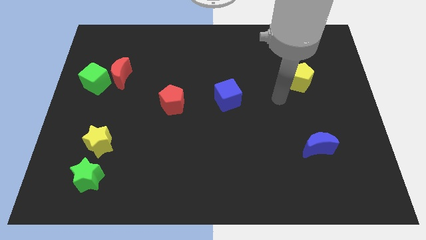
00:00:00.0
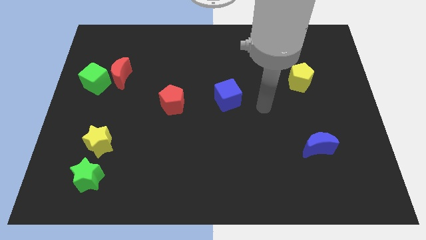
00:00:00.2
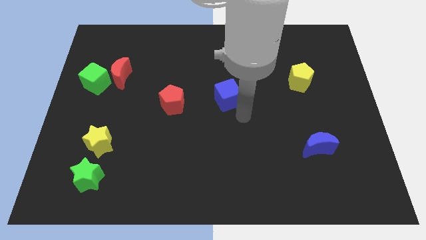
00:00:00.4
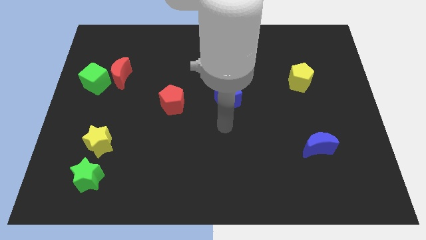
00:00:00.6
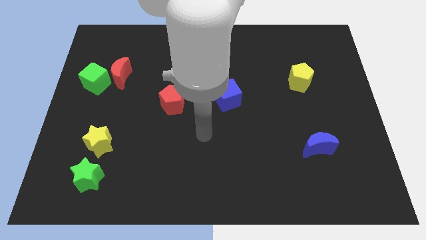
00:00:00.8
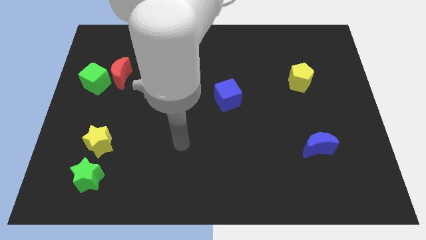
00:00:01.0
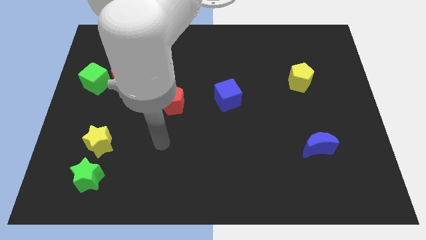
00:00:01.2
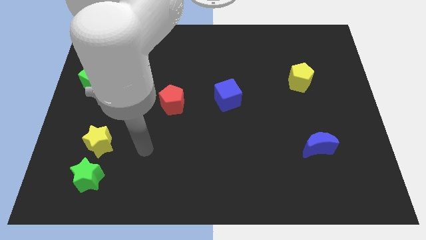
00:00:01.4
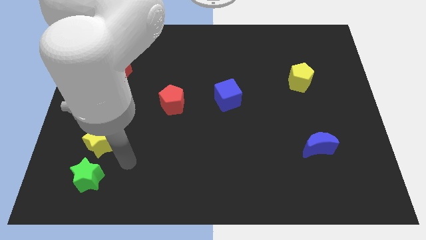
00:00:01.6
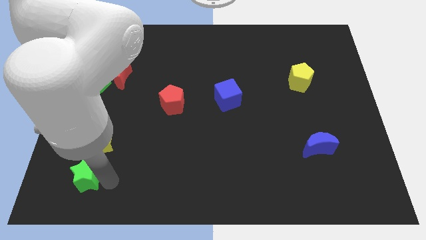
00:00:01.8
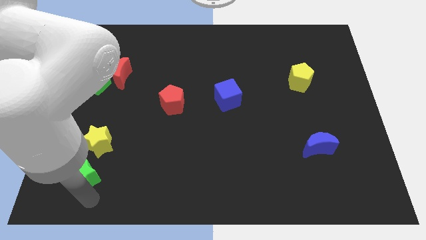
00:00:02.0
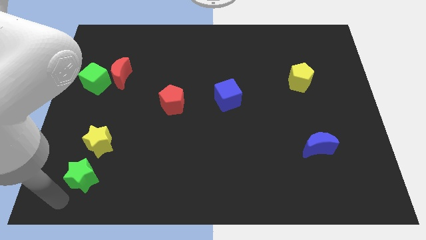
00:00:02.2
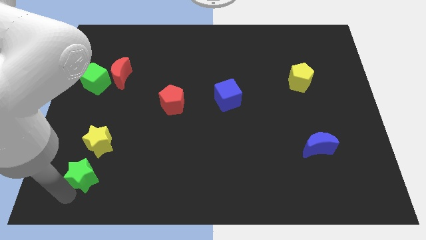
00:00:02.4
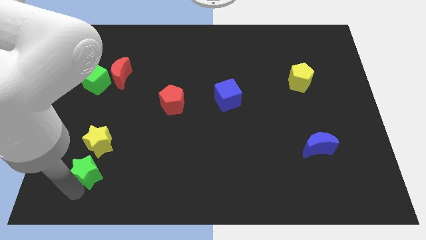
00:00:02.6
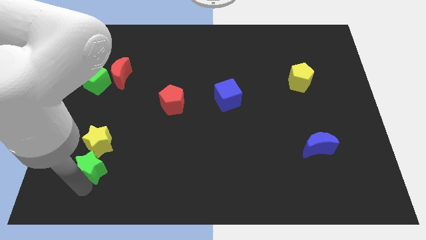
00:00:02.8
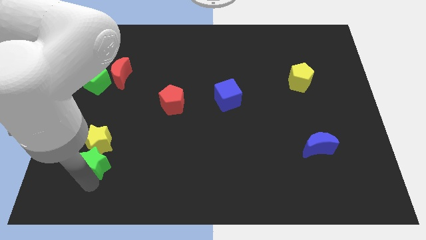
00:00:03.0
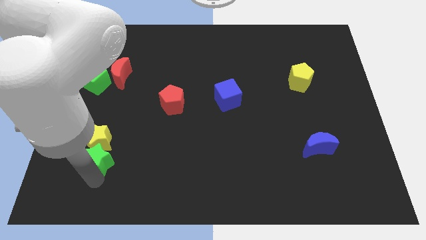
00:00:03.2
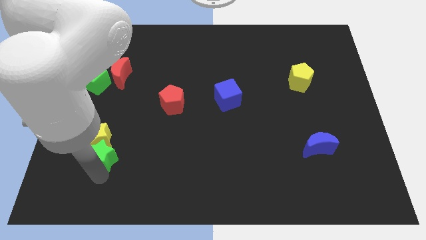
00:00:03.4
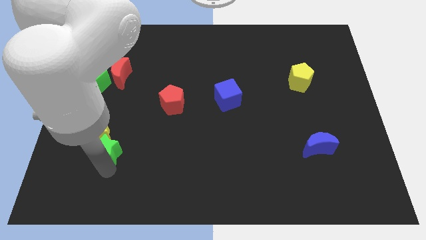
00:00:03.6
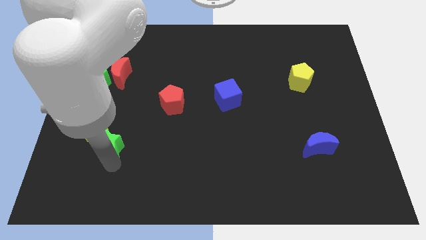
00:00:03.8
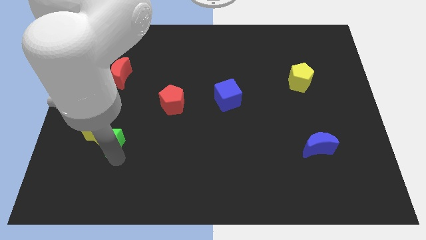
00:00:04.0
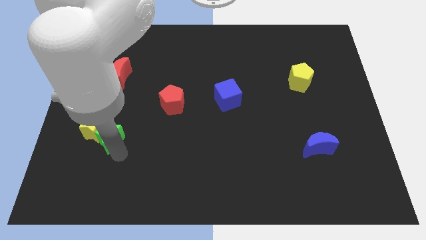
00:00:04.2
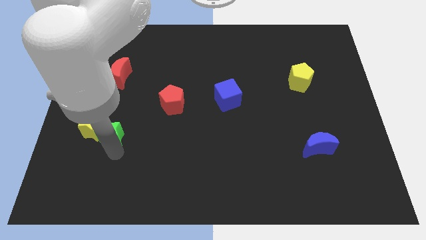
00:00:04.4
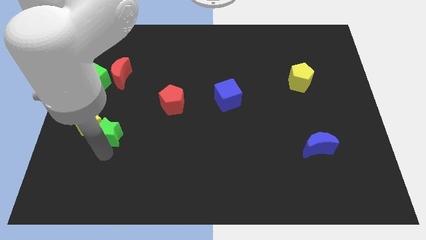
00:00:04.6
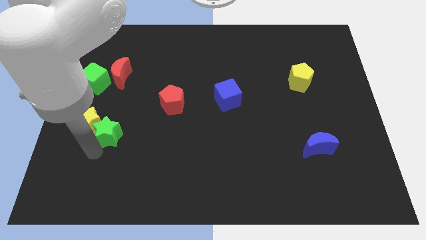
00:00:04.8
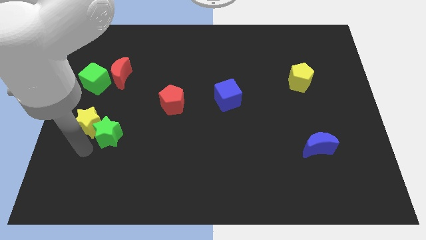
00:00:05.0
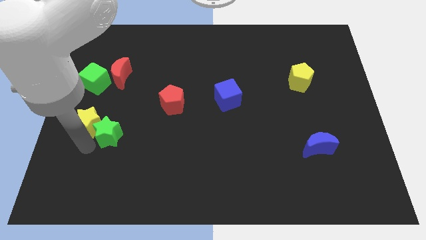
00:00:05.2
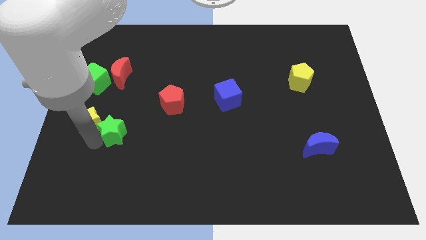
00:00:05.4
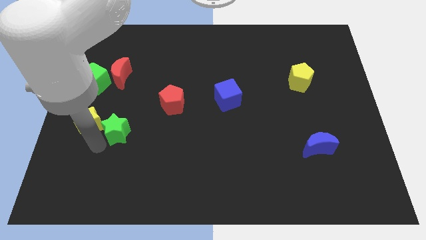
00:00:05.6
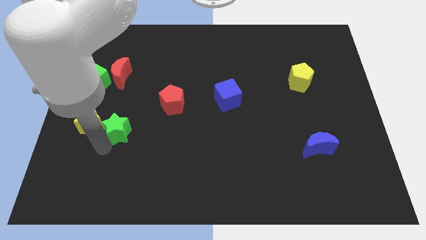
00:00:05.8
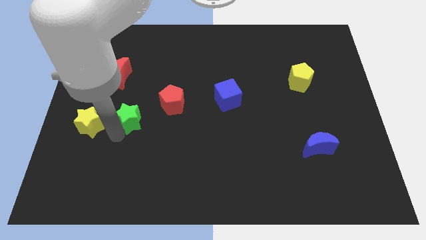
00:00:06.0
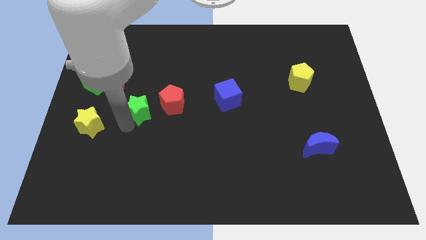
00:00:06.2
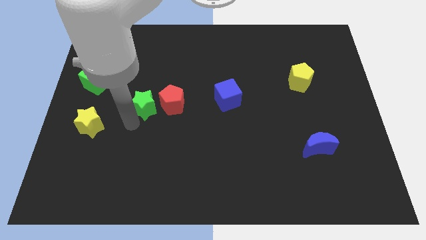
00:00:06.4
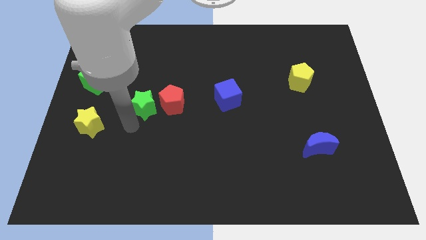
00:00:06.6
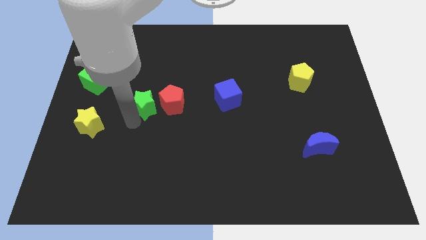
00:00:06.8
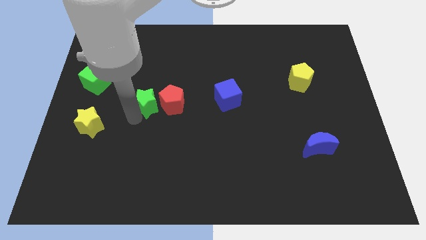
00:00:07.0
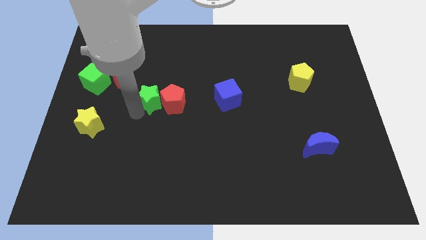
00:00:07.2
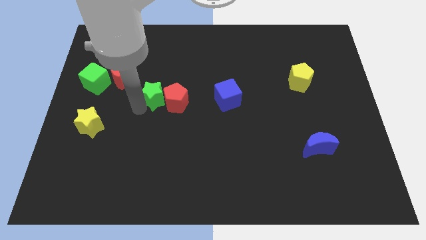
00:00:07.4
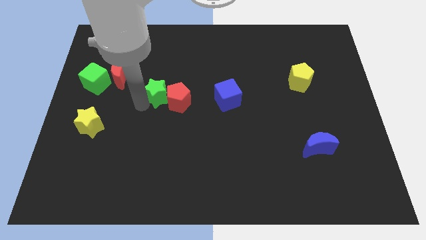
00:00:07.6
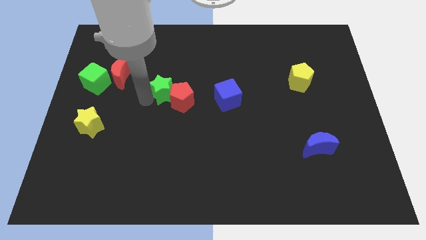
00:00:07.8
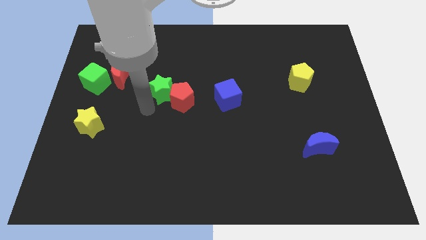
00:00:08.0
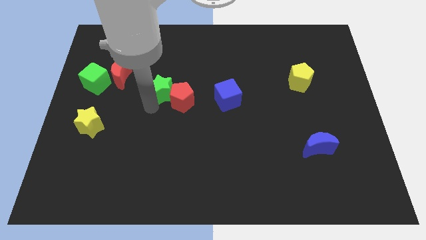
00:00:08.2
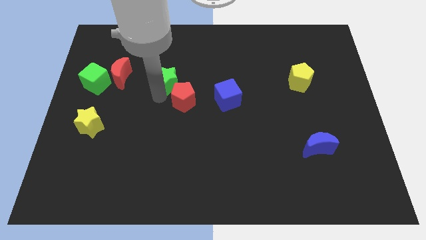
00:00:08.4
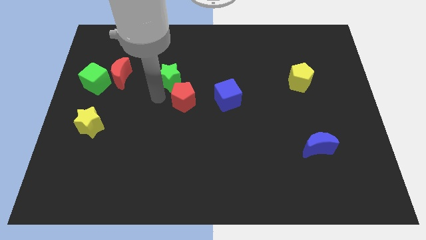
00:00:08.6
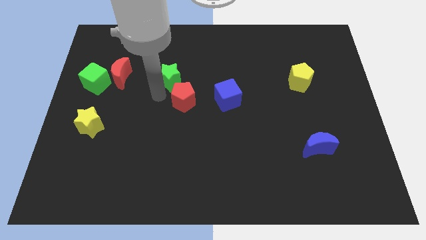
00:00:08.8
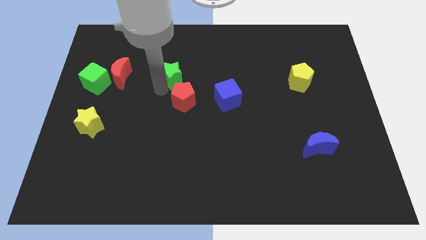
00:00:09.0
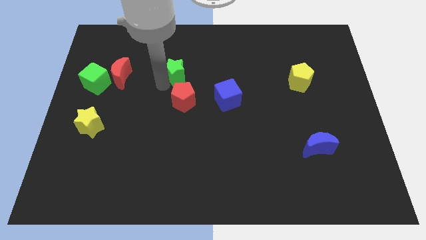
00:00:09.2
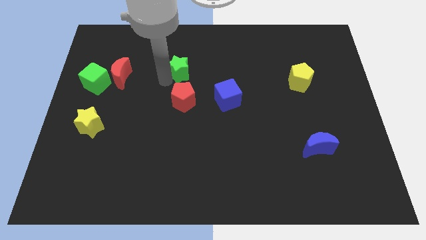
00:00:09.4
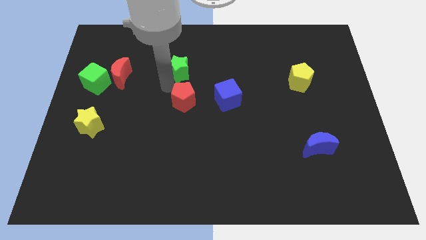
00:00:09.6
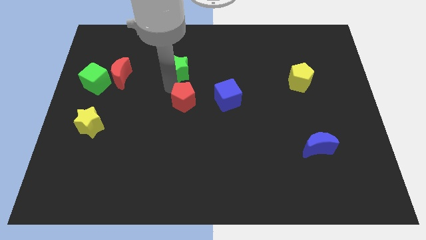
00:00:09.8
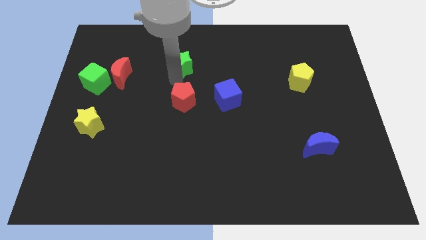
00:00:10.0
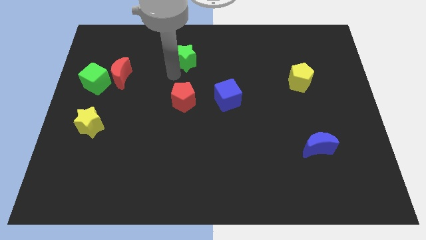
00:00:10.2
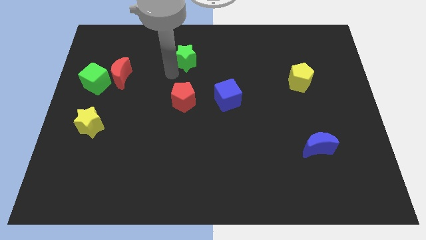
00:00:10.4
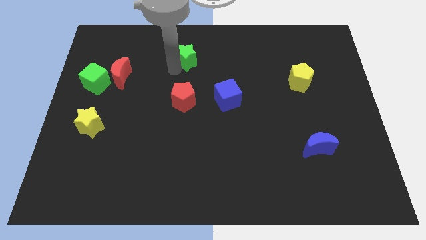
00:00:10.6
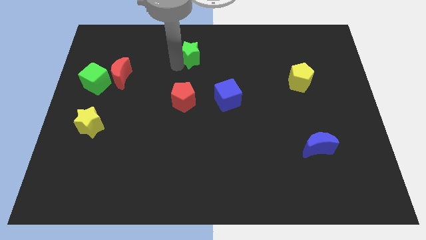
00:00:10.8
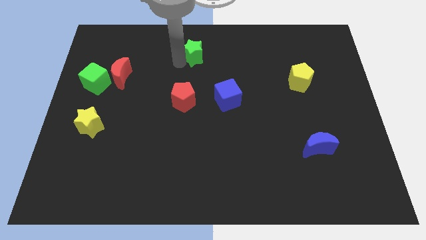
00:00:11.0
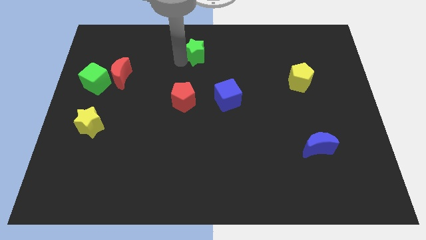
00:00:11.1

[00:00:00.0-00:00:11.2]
slide the green star to the top side
